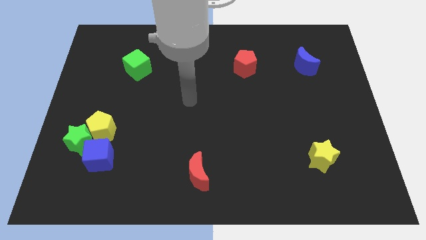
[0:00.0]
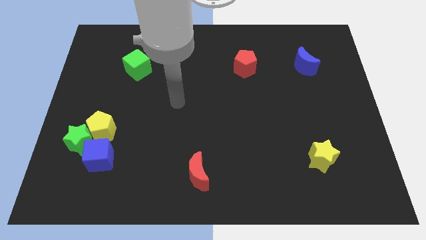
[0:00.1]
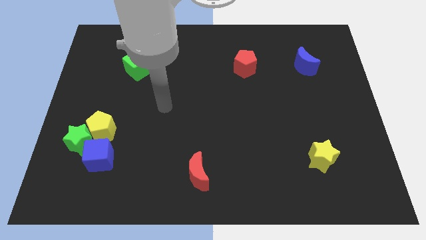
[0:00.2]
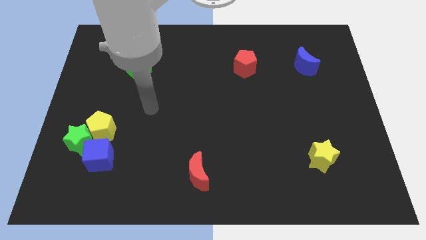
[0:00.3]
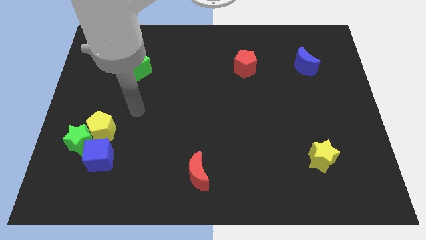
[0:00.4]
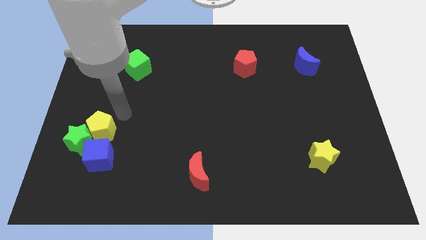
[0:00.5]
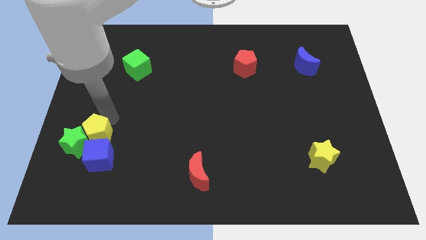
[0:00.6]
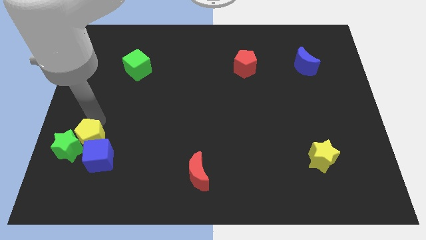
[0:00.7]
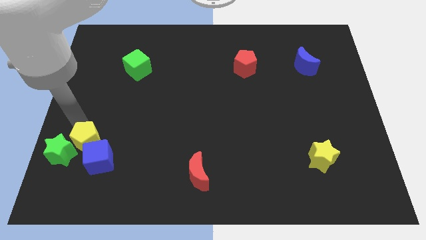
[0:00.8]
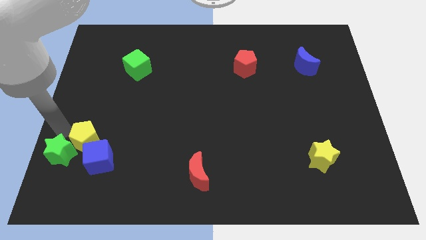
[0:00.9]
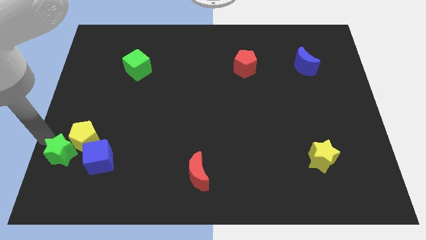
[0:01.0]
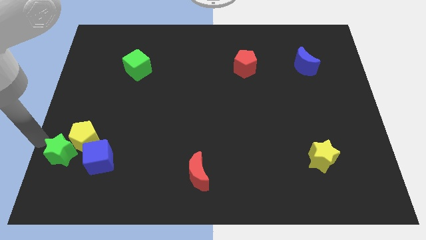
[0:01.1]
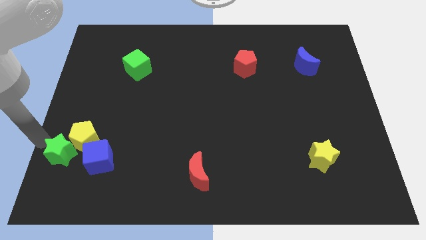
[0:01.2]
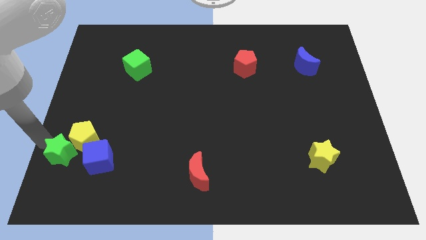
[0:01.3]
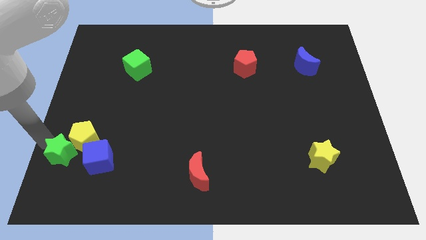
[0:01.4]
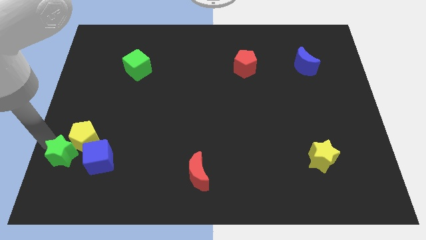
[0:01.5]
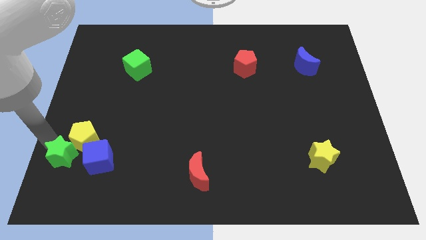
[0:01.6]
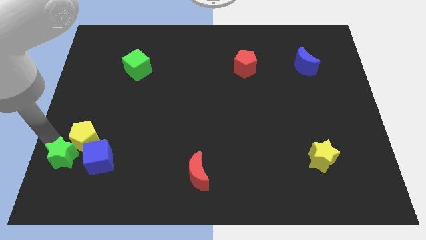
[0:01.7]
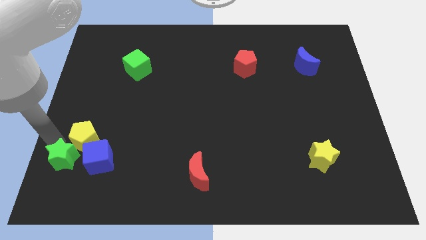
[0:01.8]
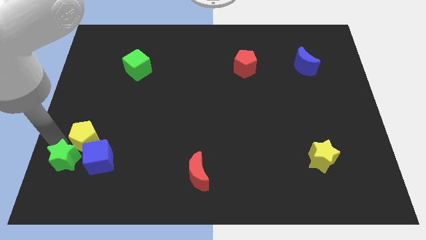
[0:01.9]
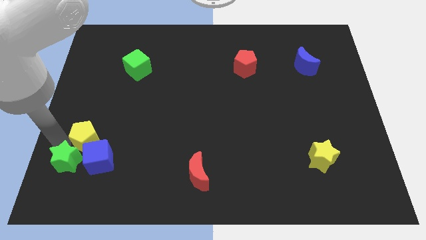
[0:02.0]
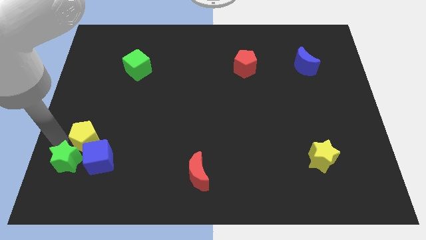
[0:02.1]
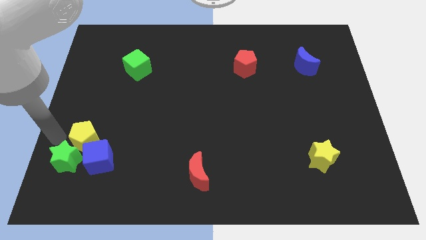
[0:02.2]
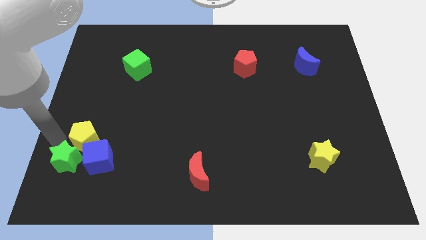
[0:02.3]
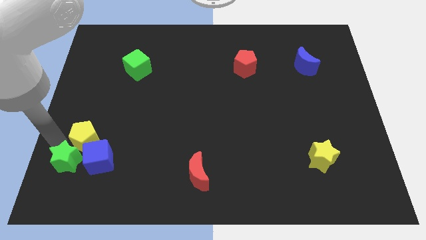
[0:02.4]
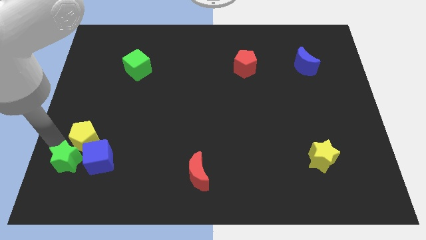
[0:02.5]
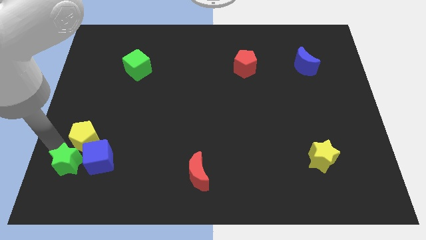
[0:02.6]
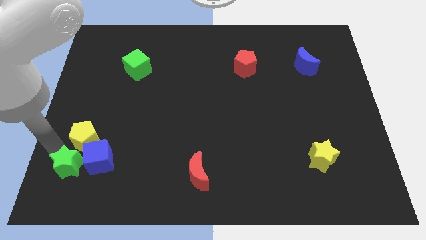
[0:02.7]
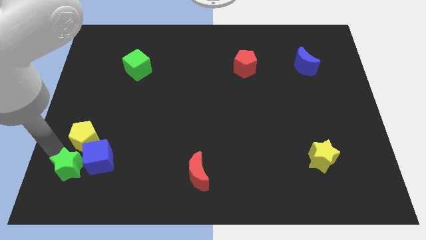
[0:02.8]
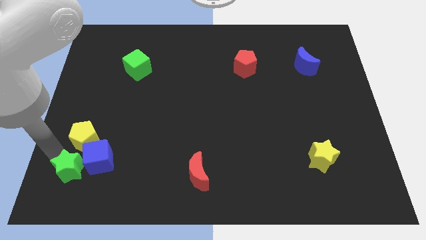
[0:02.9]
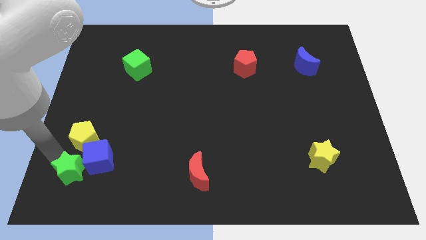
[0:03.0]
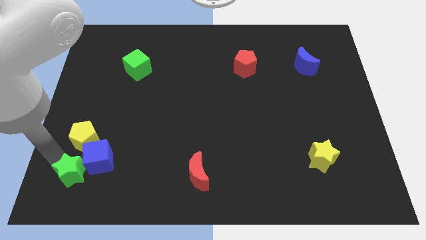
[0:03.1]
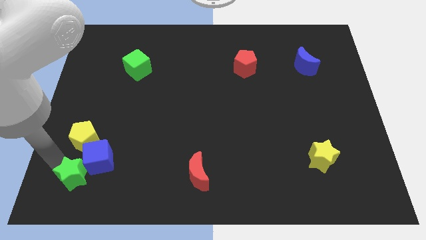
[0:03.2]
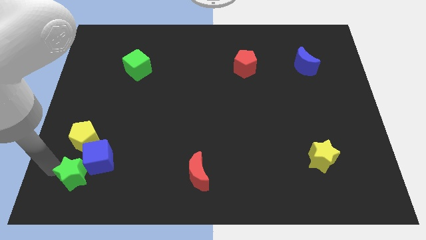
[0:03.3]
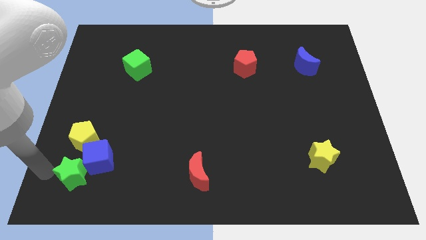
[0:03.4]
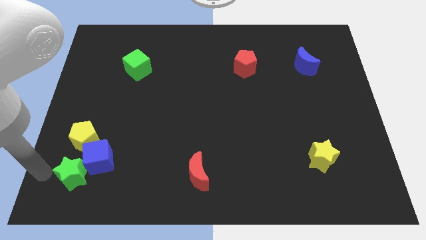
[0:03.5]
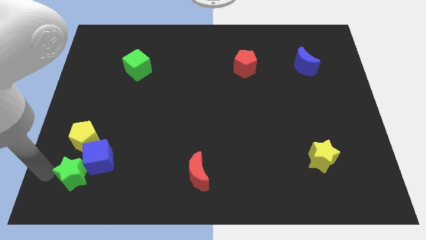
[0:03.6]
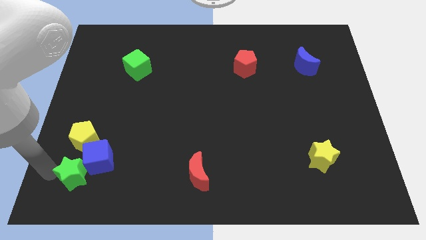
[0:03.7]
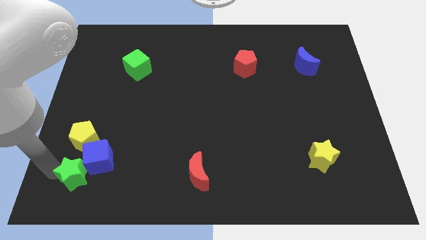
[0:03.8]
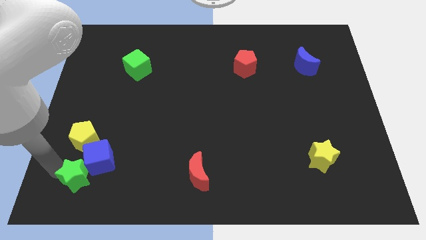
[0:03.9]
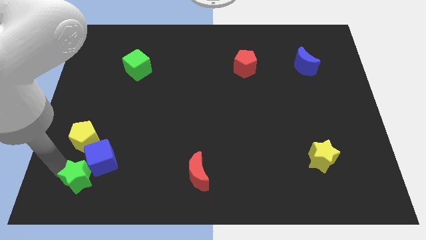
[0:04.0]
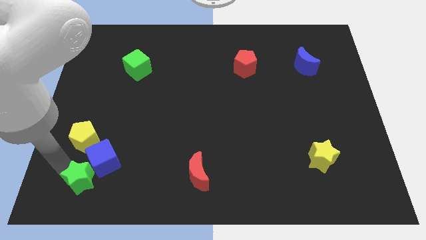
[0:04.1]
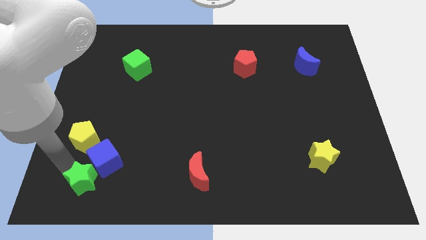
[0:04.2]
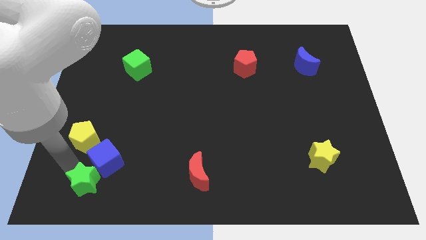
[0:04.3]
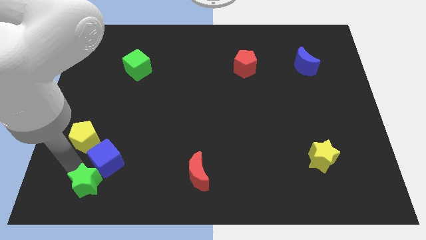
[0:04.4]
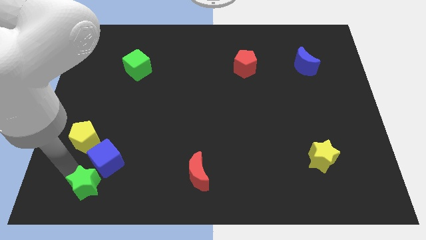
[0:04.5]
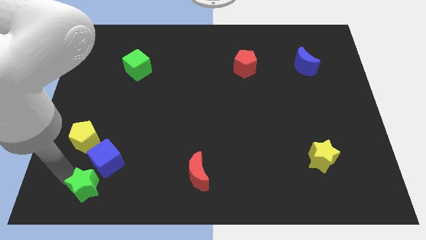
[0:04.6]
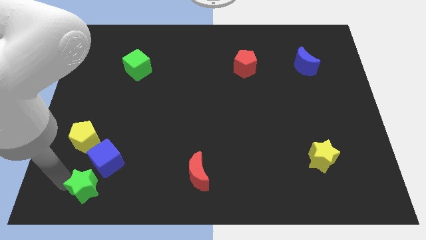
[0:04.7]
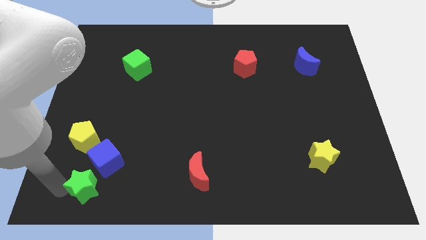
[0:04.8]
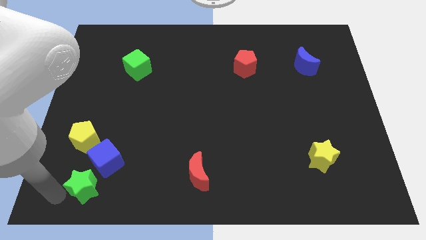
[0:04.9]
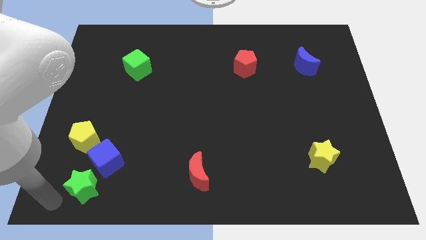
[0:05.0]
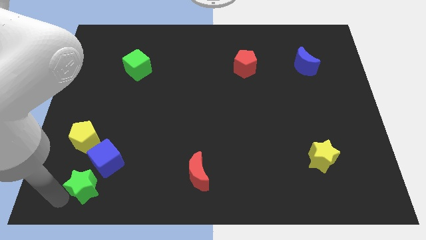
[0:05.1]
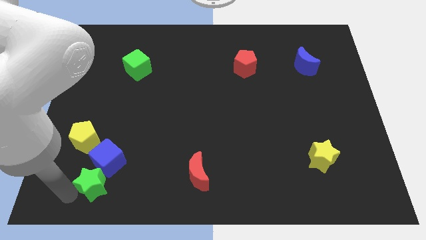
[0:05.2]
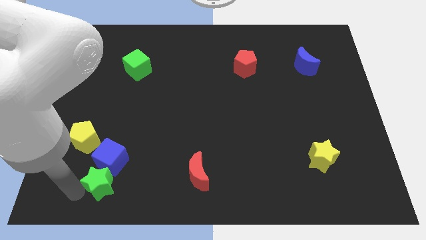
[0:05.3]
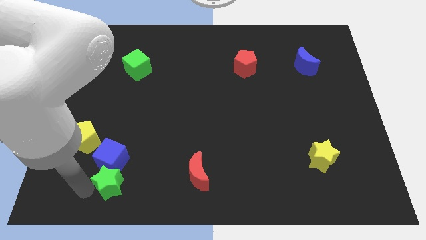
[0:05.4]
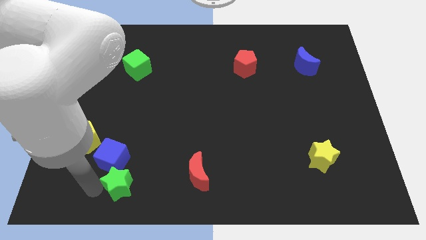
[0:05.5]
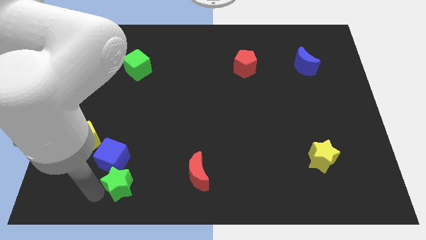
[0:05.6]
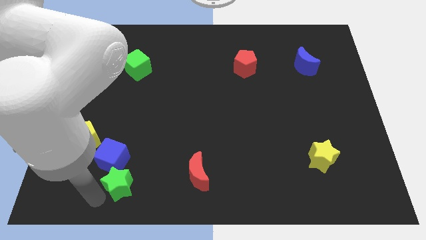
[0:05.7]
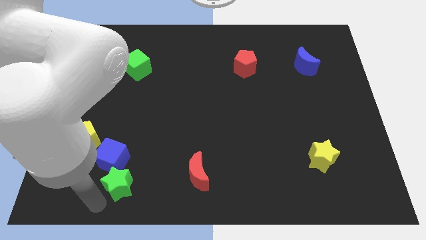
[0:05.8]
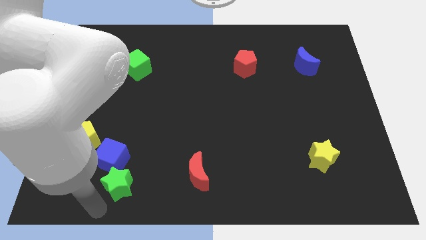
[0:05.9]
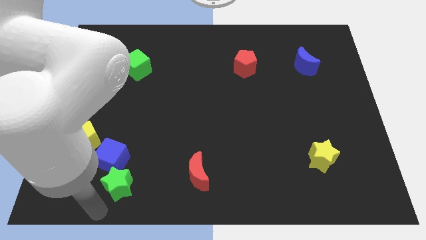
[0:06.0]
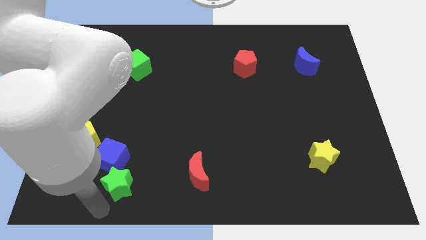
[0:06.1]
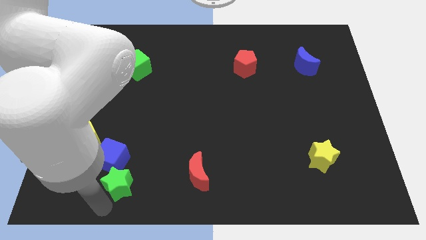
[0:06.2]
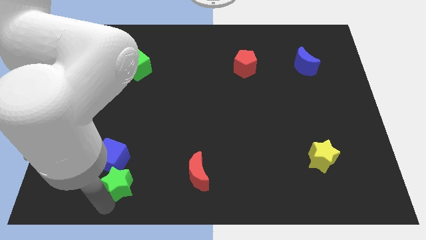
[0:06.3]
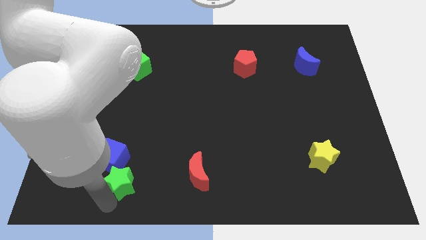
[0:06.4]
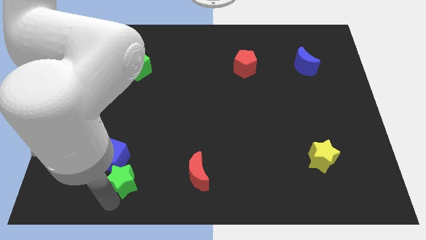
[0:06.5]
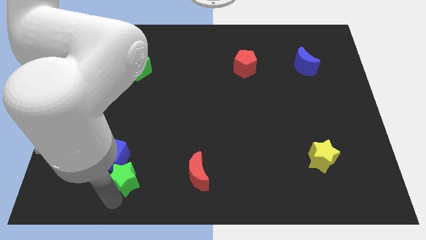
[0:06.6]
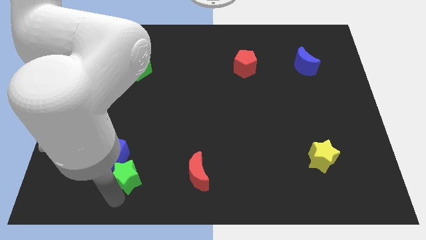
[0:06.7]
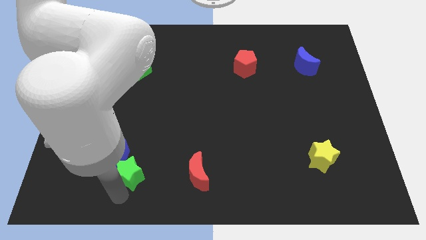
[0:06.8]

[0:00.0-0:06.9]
slide the green star just right of the blue cube

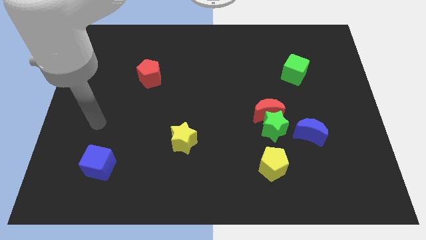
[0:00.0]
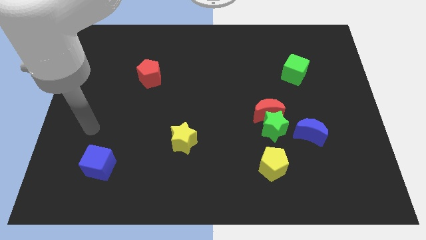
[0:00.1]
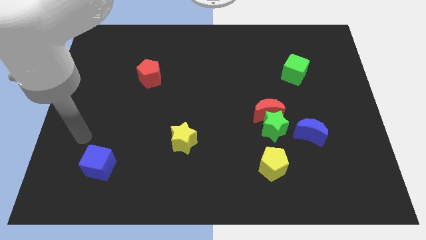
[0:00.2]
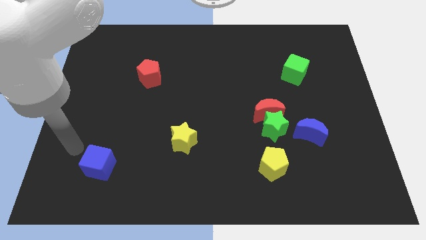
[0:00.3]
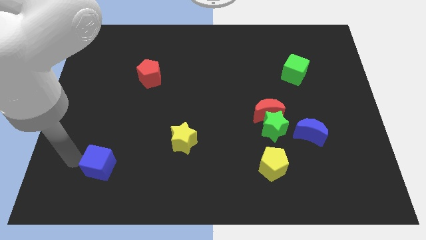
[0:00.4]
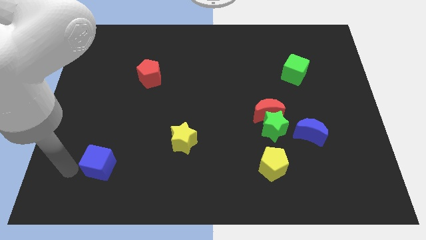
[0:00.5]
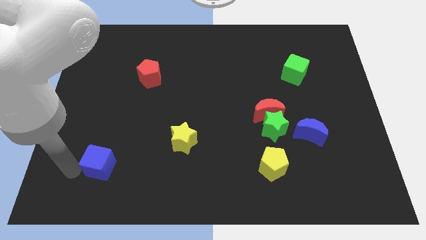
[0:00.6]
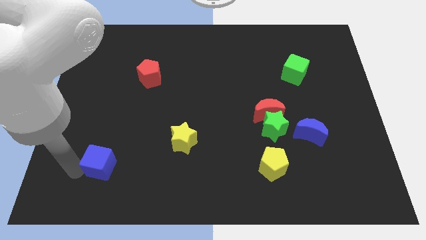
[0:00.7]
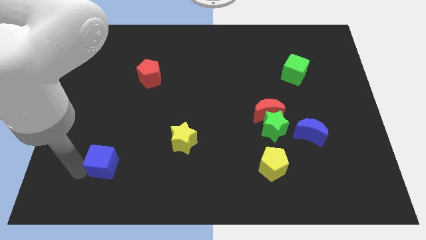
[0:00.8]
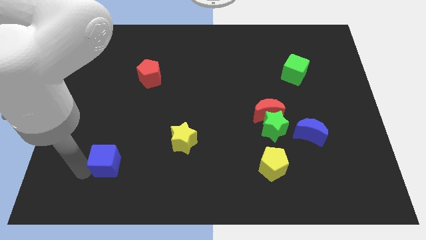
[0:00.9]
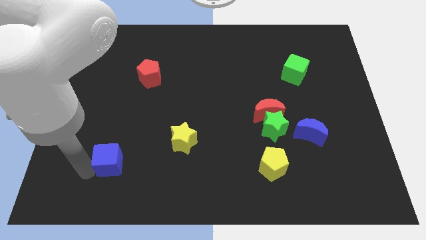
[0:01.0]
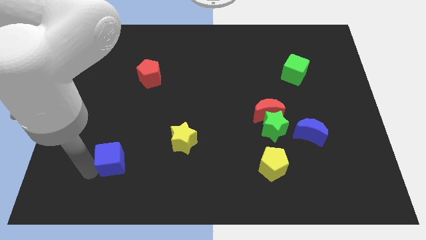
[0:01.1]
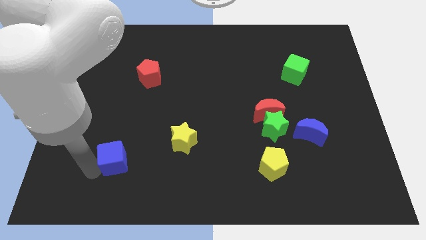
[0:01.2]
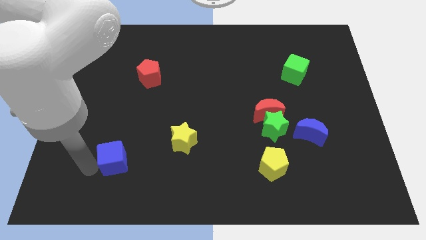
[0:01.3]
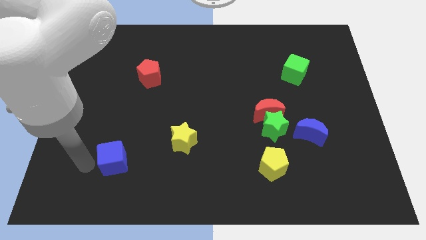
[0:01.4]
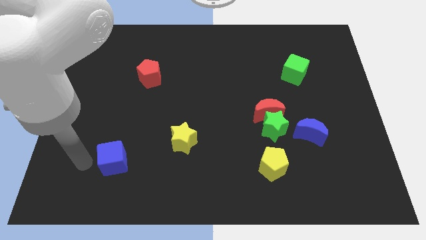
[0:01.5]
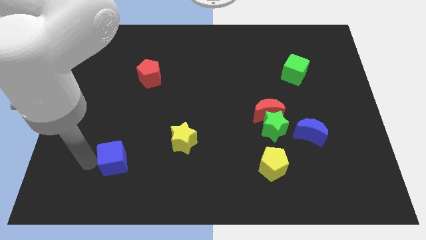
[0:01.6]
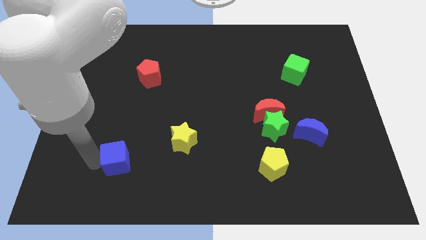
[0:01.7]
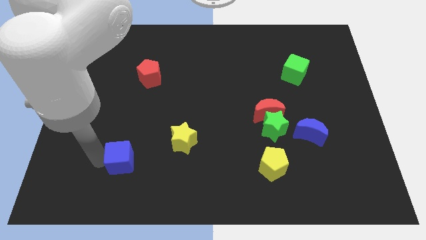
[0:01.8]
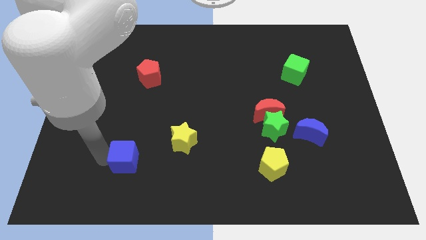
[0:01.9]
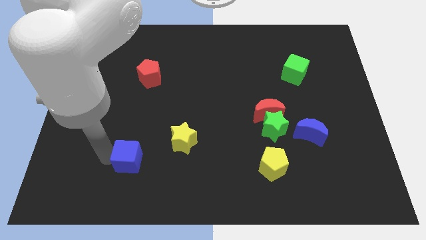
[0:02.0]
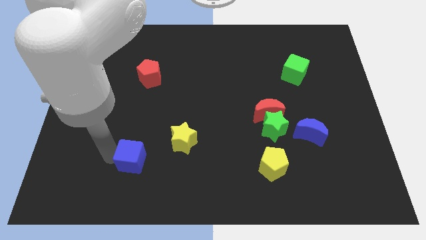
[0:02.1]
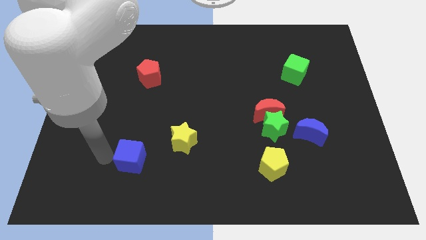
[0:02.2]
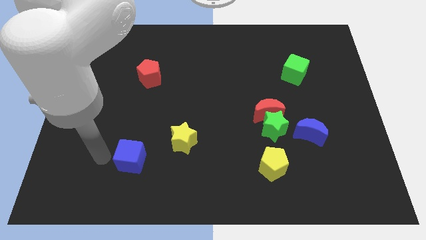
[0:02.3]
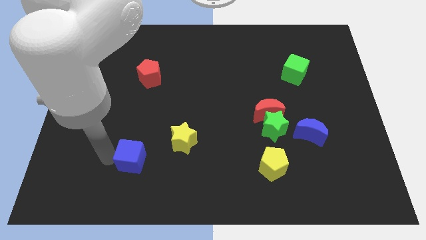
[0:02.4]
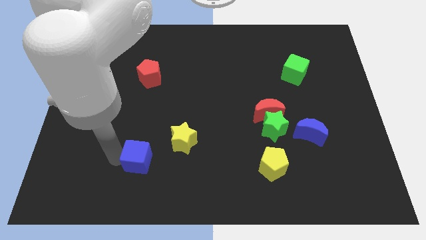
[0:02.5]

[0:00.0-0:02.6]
move the blue cube diagonally down and to the left of the yellow star
